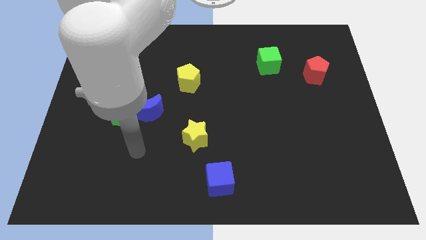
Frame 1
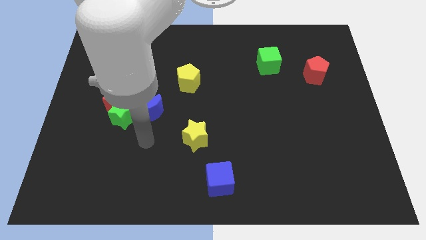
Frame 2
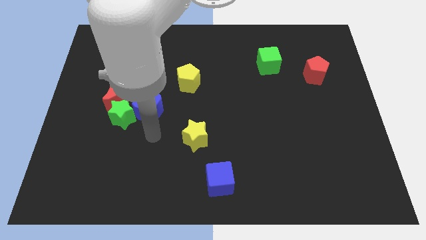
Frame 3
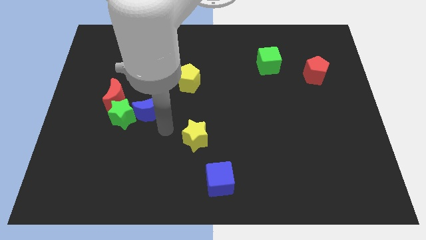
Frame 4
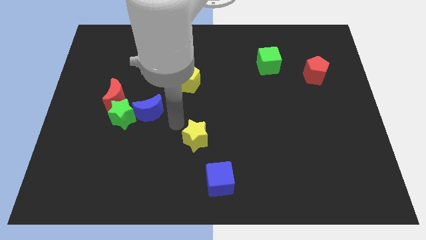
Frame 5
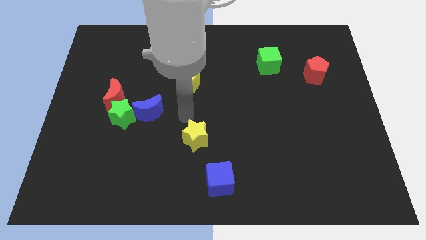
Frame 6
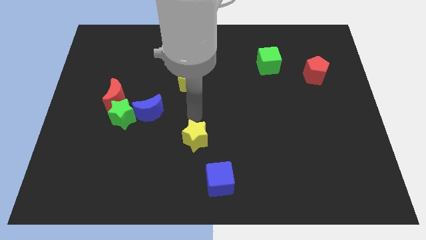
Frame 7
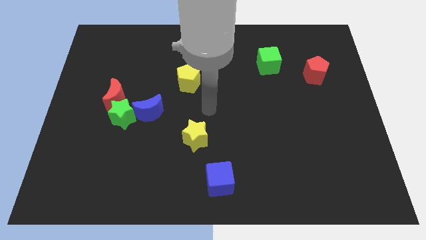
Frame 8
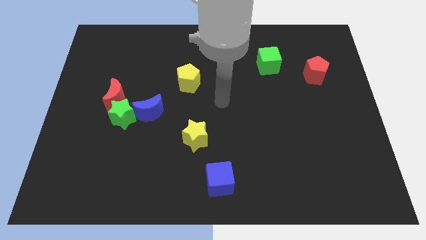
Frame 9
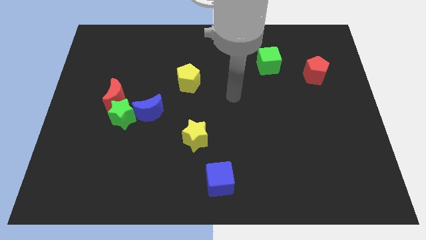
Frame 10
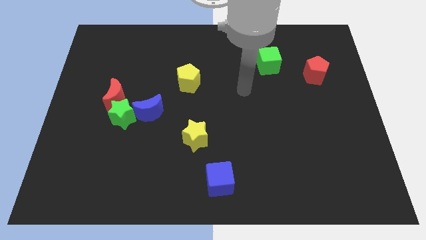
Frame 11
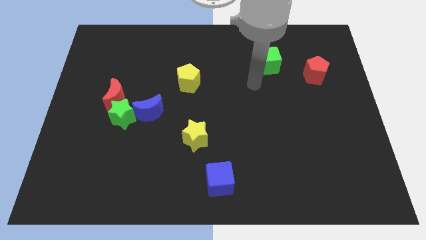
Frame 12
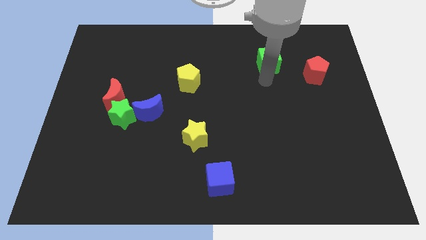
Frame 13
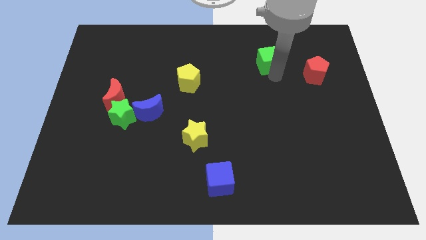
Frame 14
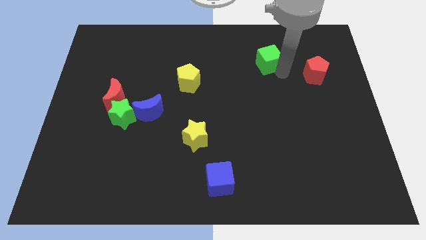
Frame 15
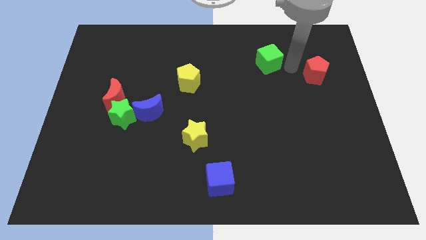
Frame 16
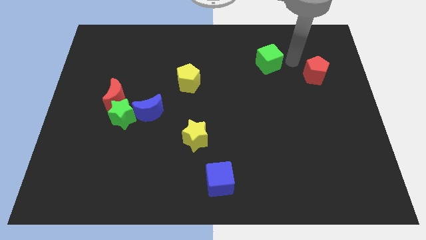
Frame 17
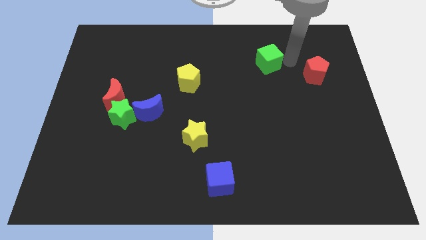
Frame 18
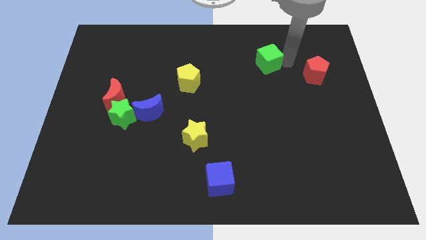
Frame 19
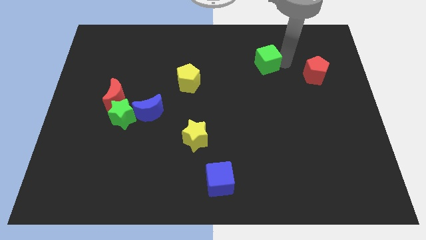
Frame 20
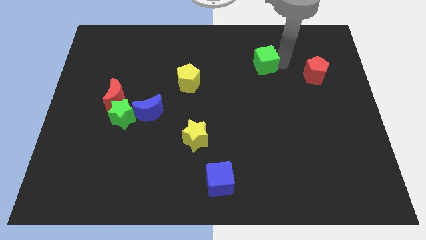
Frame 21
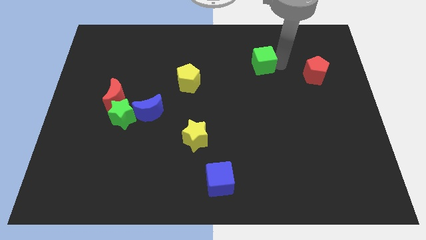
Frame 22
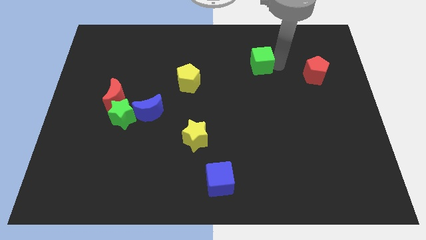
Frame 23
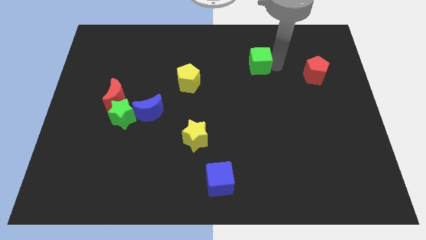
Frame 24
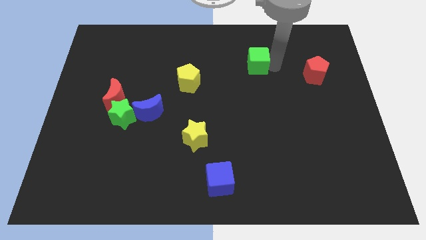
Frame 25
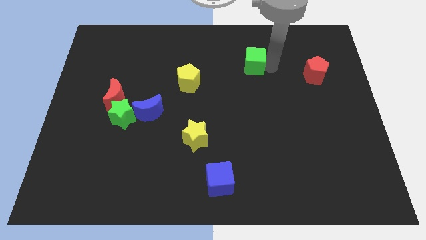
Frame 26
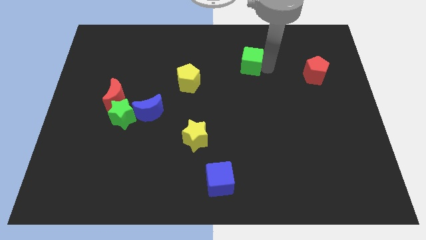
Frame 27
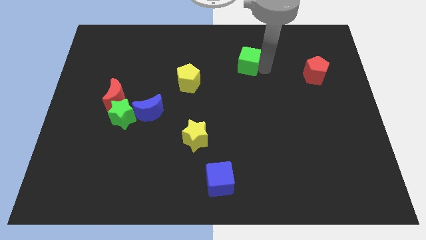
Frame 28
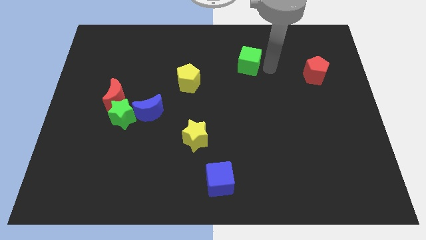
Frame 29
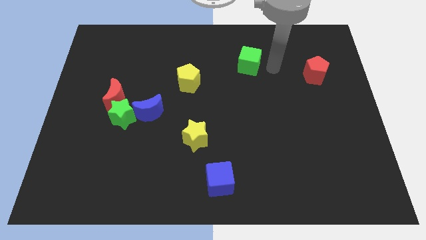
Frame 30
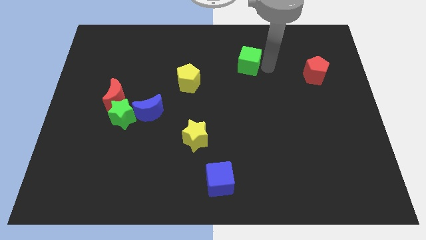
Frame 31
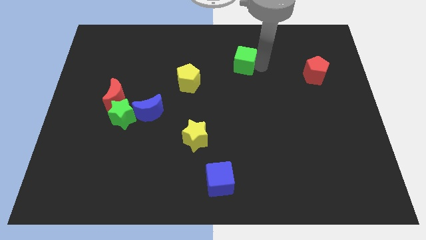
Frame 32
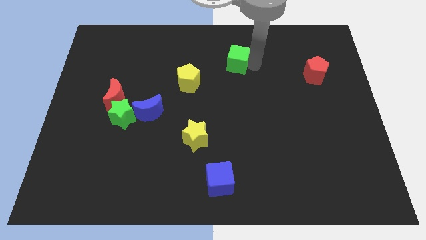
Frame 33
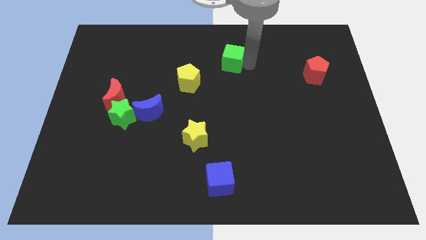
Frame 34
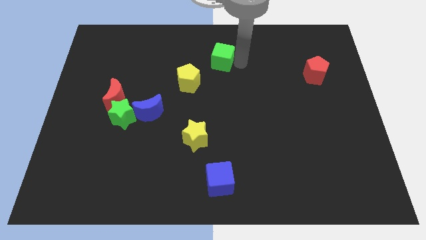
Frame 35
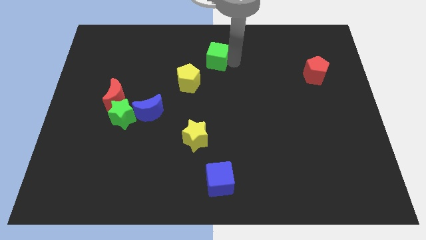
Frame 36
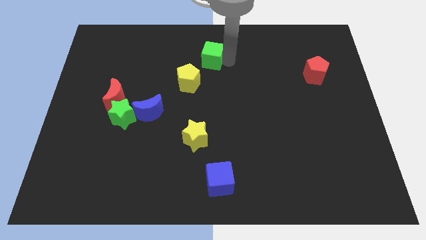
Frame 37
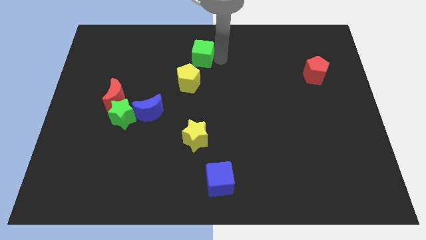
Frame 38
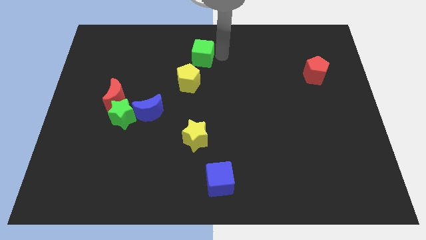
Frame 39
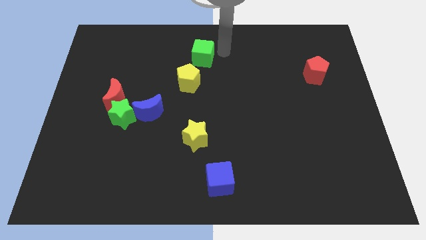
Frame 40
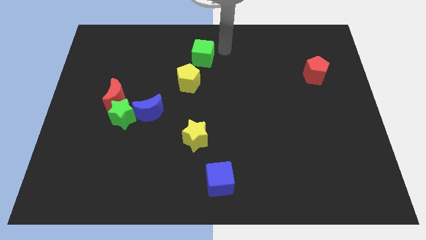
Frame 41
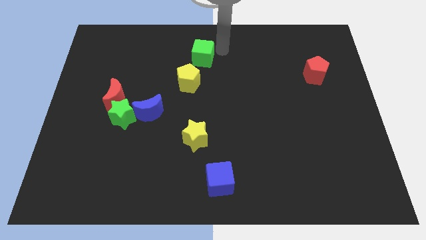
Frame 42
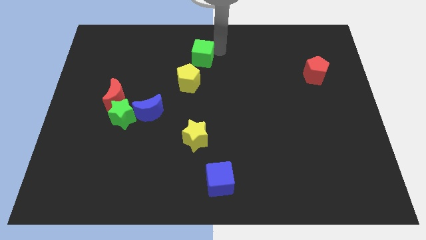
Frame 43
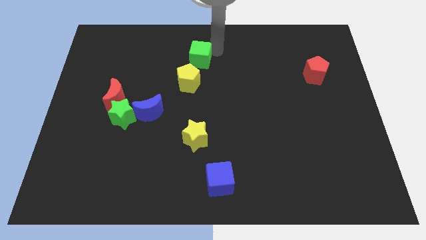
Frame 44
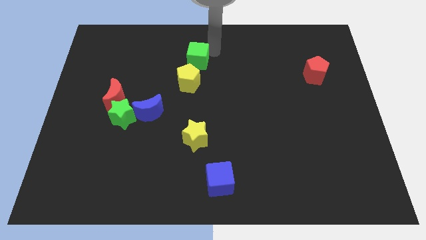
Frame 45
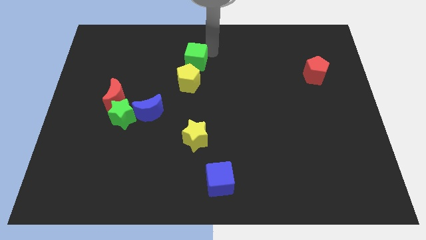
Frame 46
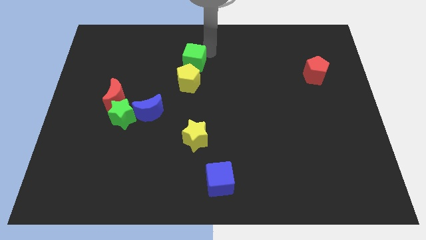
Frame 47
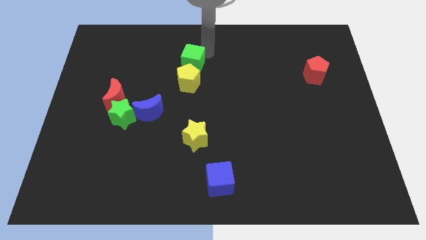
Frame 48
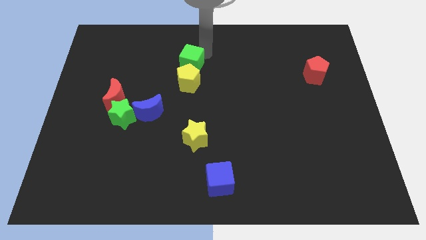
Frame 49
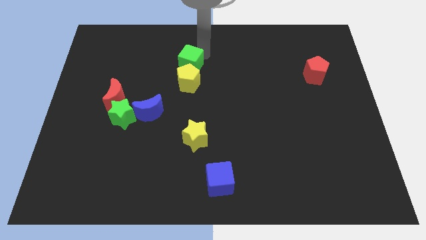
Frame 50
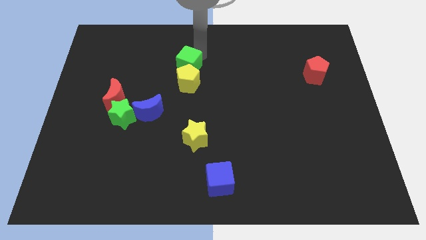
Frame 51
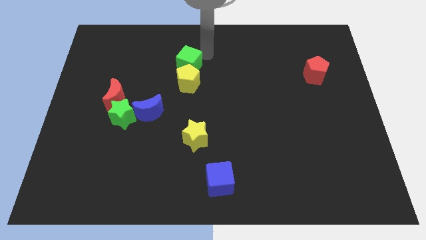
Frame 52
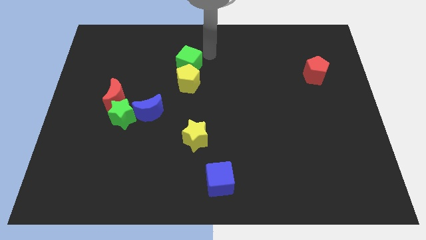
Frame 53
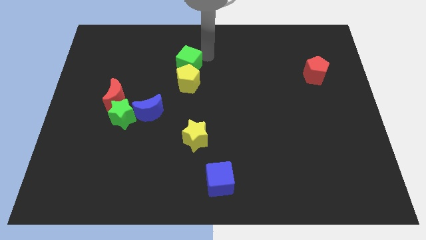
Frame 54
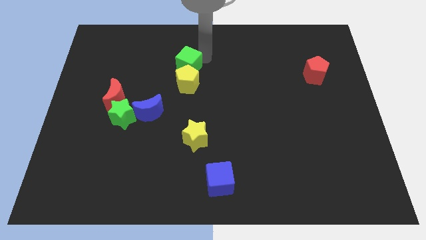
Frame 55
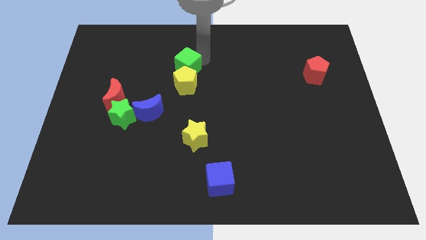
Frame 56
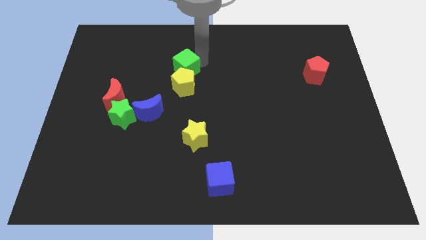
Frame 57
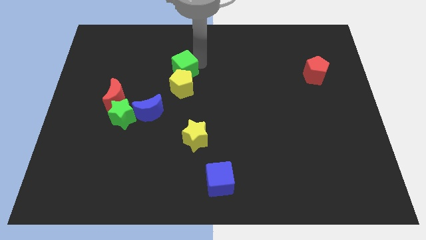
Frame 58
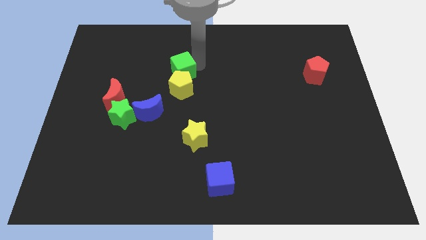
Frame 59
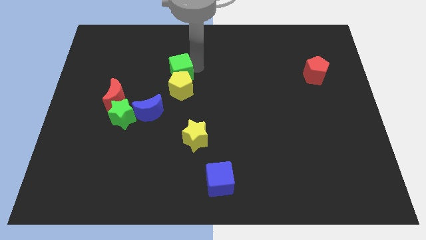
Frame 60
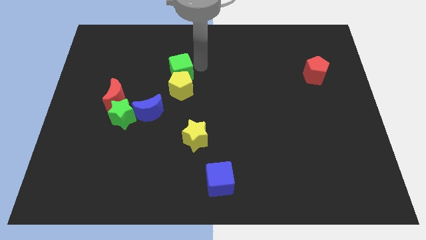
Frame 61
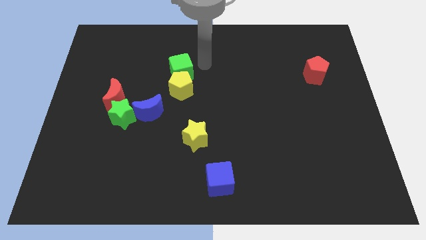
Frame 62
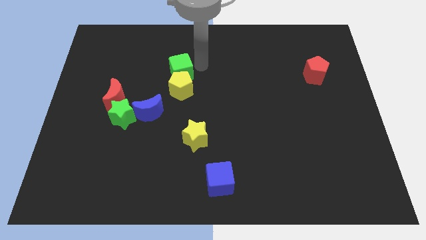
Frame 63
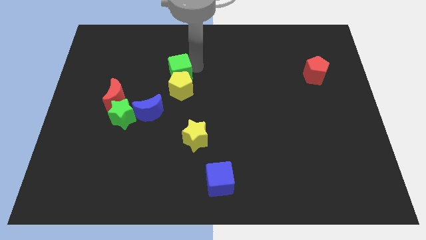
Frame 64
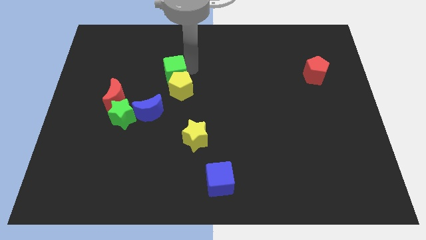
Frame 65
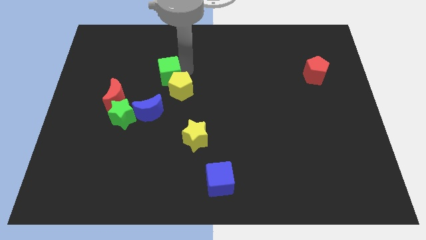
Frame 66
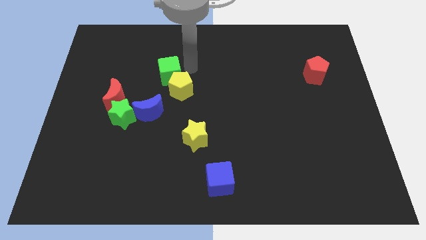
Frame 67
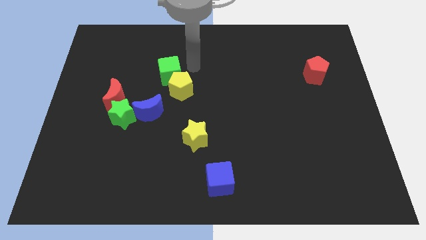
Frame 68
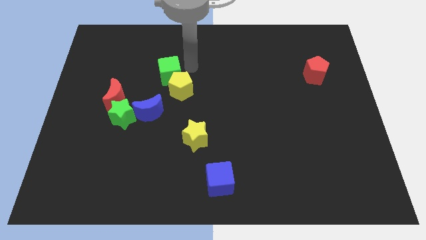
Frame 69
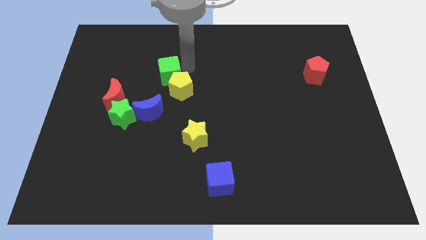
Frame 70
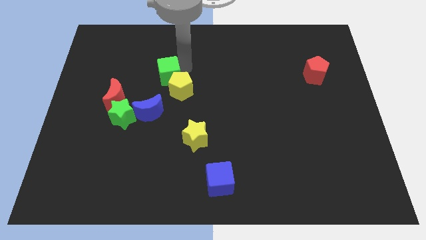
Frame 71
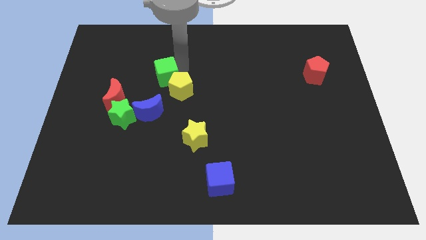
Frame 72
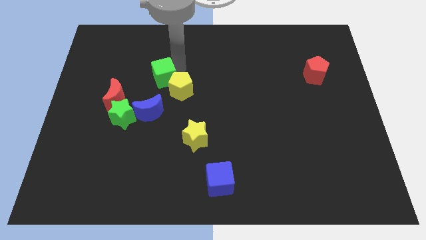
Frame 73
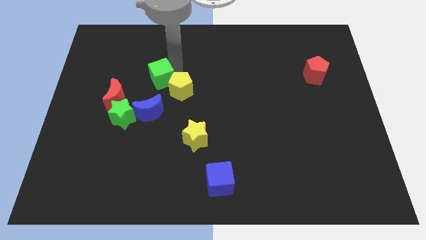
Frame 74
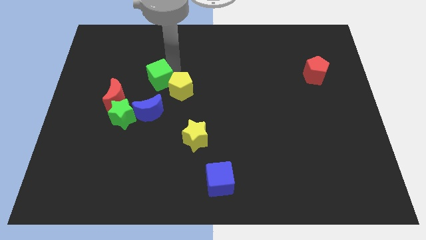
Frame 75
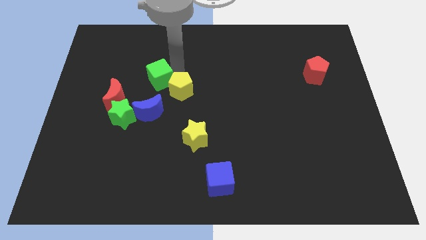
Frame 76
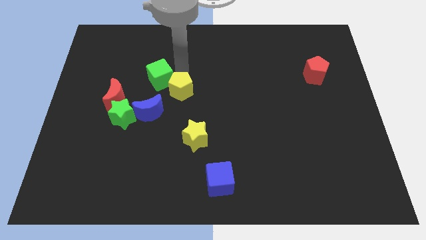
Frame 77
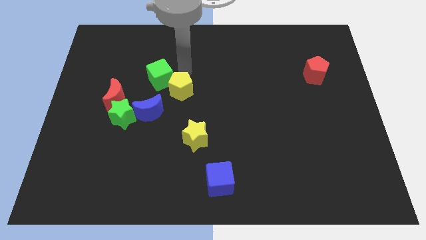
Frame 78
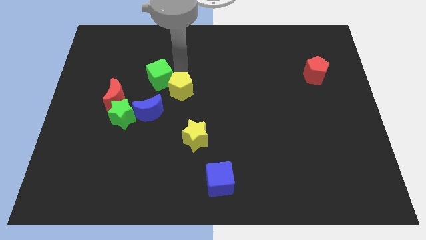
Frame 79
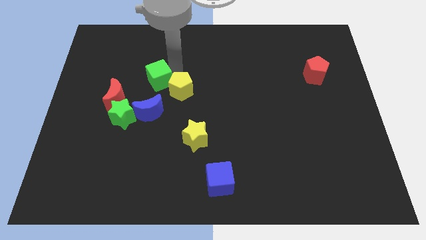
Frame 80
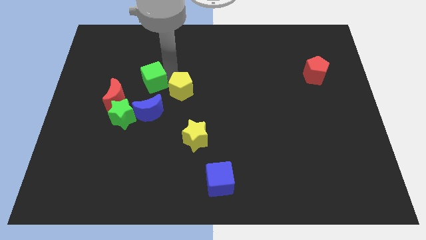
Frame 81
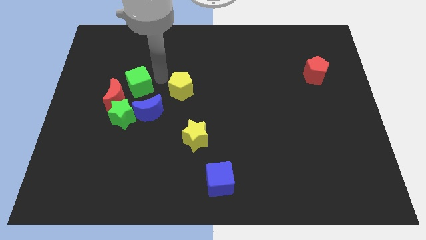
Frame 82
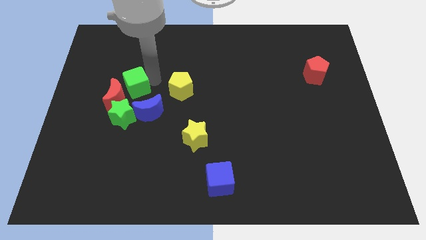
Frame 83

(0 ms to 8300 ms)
put the green cube next to the red moon
